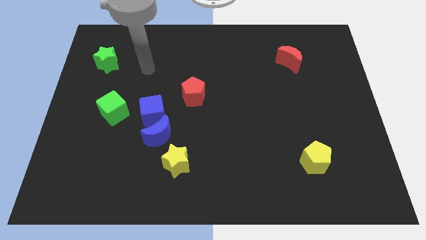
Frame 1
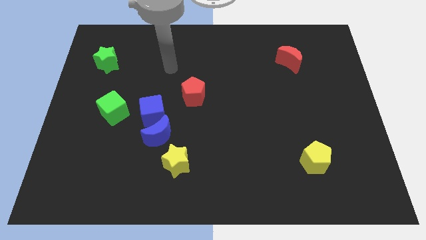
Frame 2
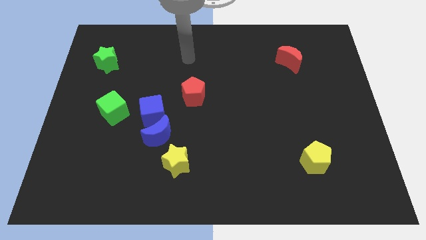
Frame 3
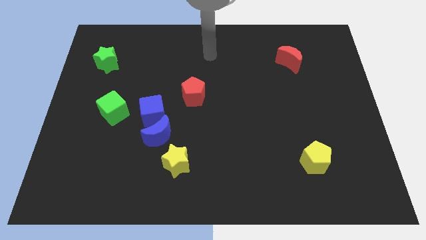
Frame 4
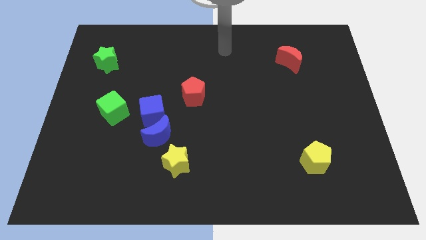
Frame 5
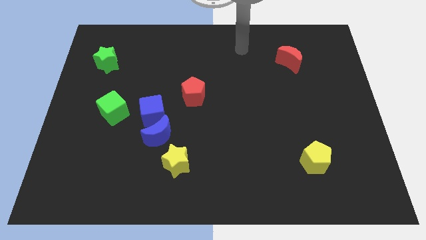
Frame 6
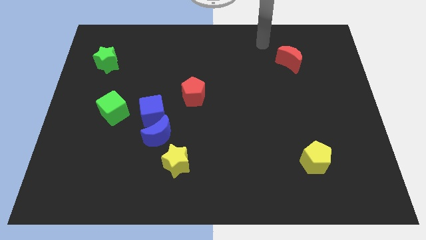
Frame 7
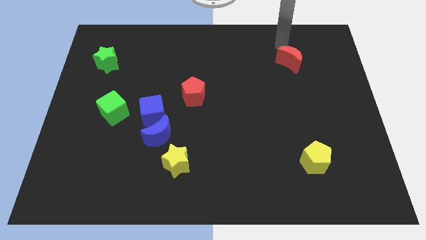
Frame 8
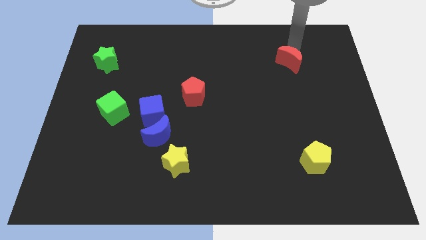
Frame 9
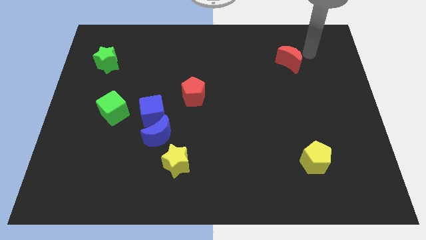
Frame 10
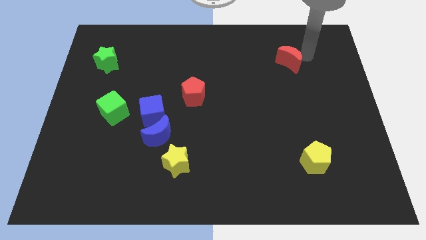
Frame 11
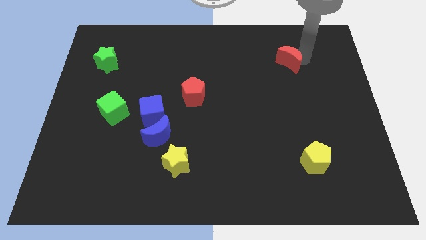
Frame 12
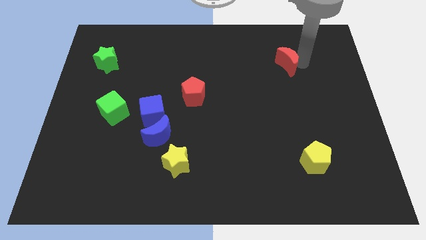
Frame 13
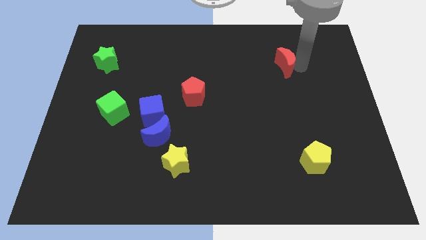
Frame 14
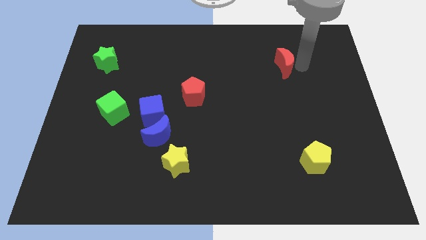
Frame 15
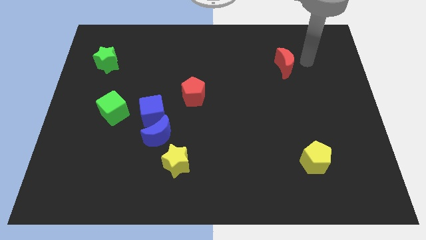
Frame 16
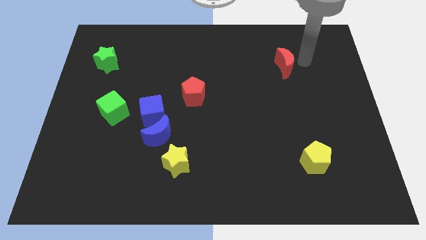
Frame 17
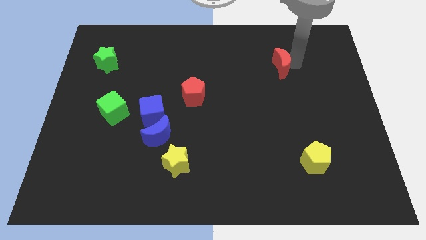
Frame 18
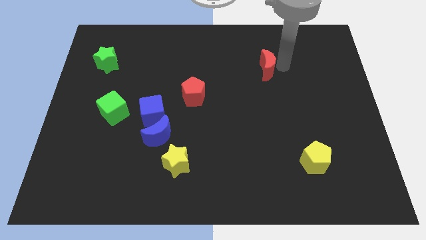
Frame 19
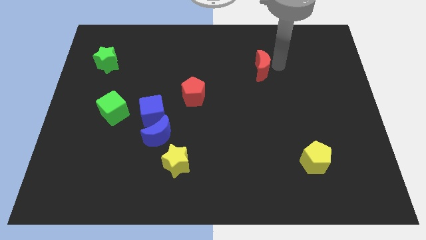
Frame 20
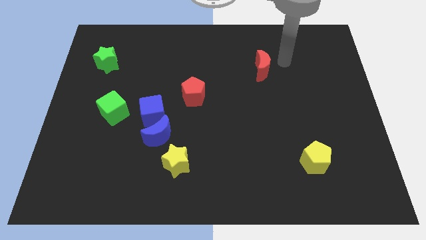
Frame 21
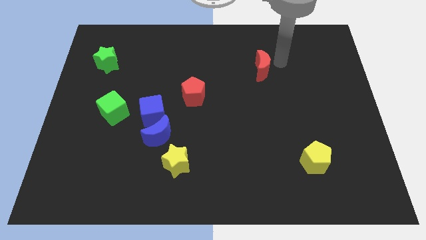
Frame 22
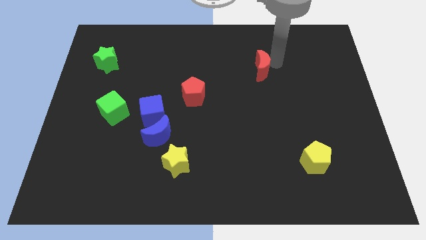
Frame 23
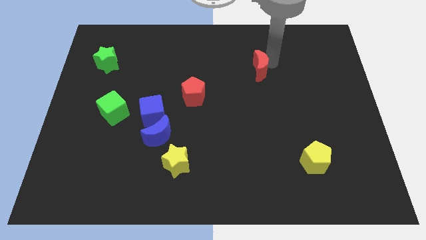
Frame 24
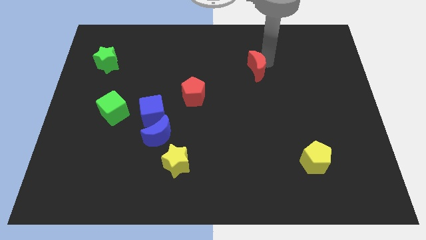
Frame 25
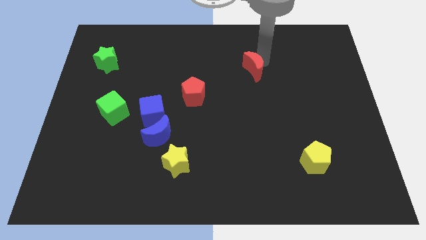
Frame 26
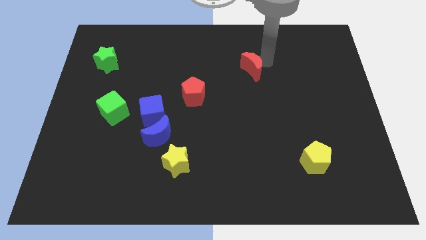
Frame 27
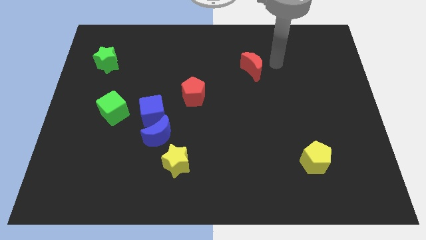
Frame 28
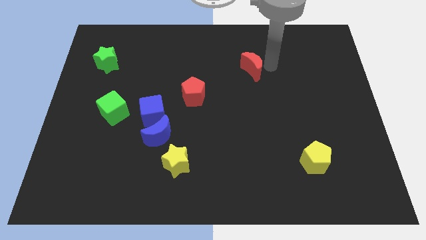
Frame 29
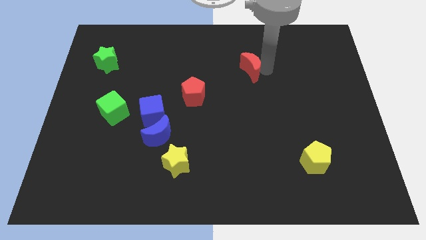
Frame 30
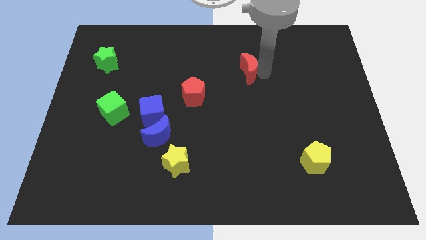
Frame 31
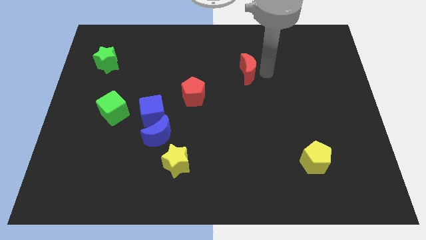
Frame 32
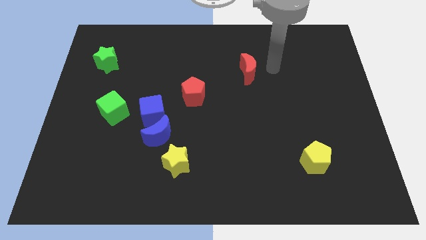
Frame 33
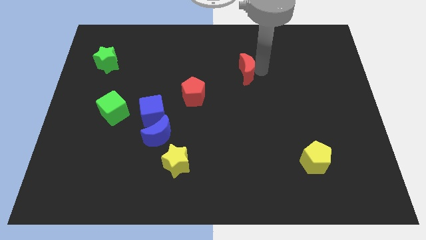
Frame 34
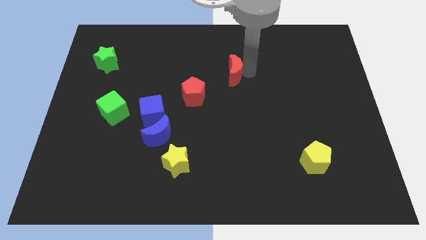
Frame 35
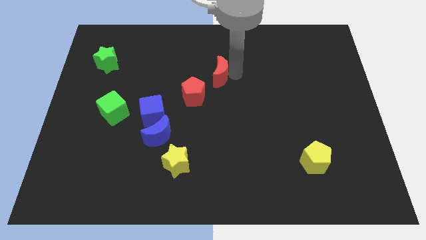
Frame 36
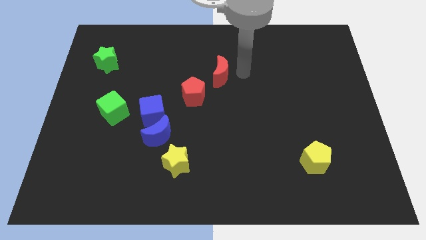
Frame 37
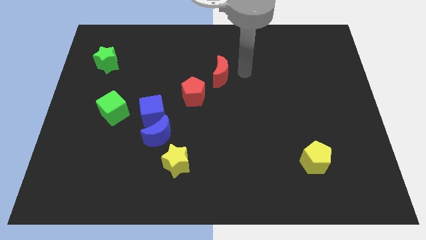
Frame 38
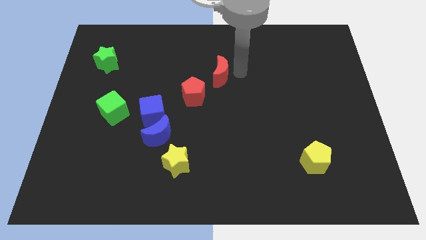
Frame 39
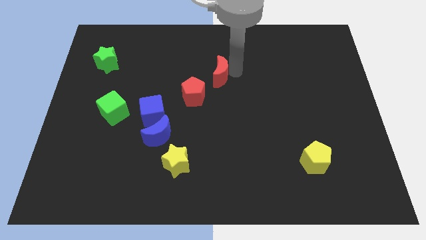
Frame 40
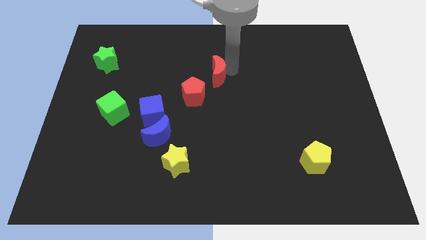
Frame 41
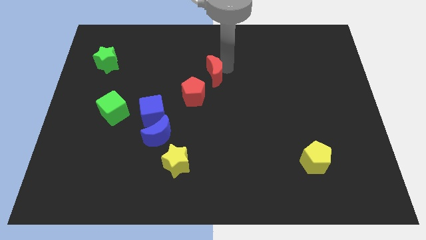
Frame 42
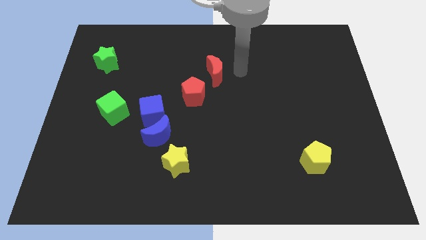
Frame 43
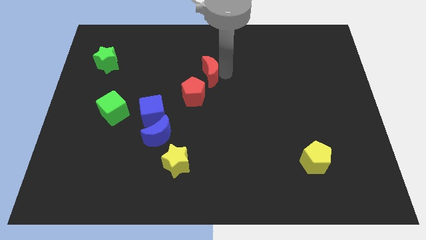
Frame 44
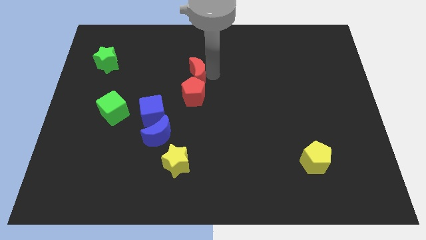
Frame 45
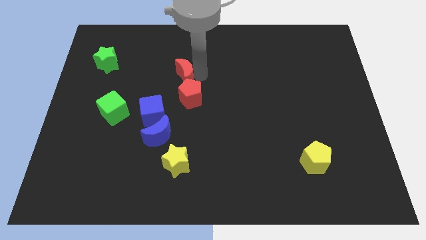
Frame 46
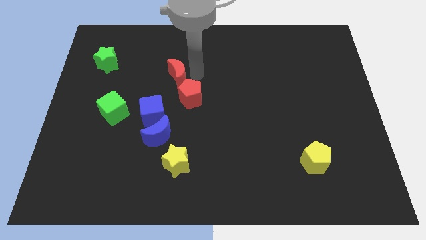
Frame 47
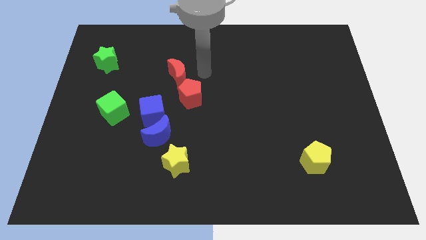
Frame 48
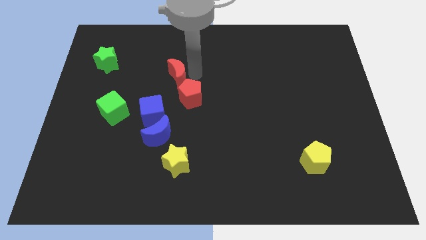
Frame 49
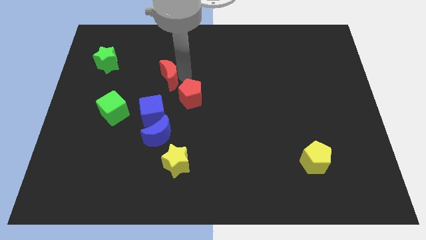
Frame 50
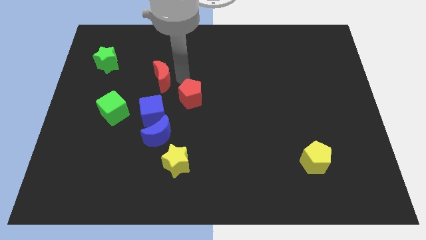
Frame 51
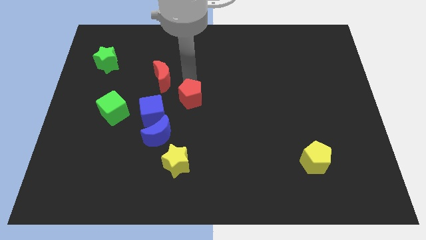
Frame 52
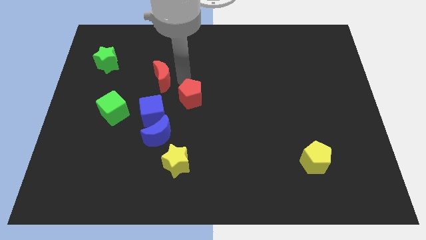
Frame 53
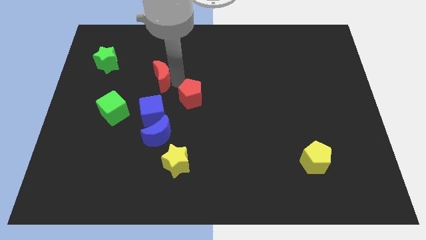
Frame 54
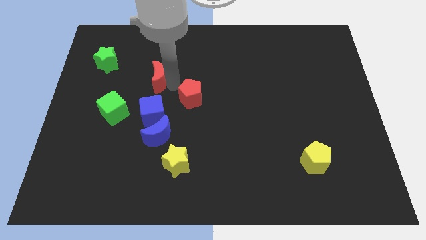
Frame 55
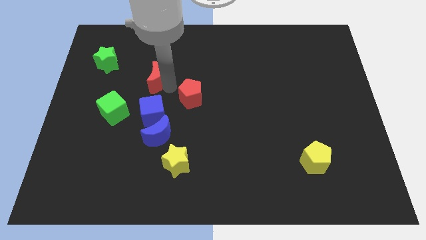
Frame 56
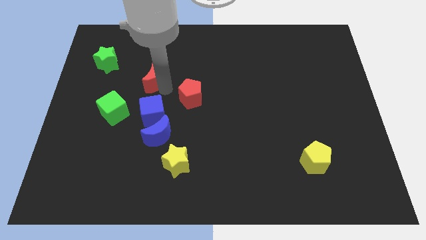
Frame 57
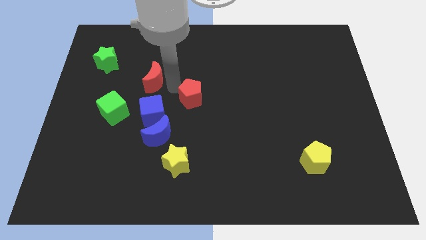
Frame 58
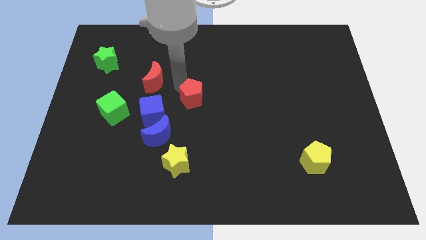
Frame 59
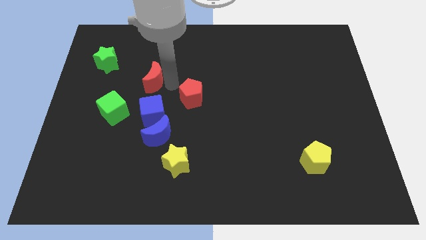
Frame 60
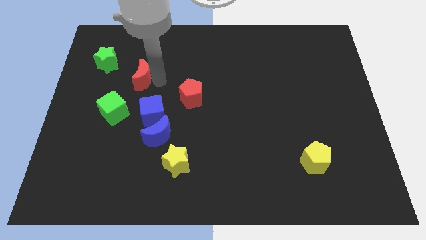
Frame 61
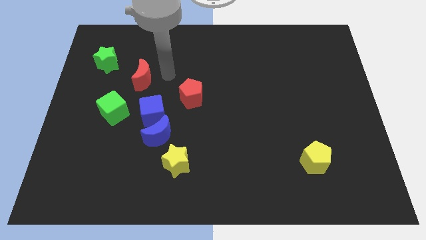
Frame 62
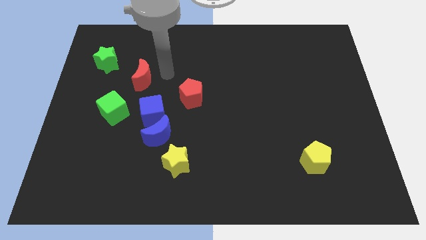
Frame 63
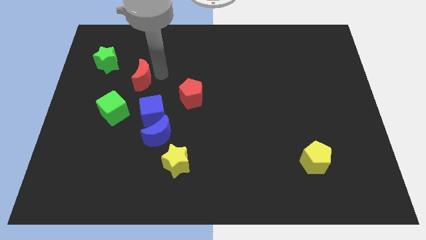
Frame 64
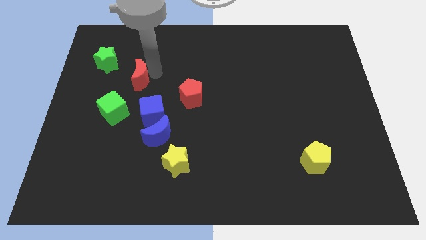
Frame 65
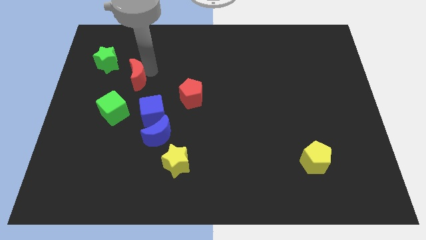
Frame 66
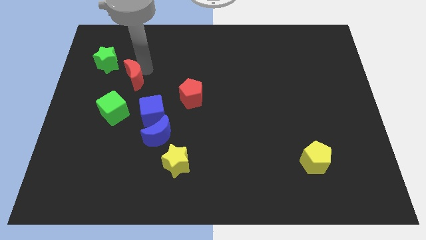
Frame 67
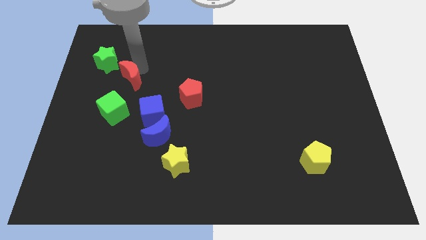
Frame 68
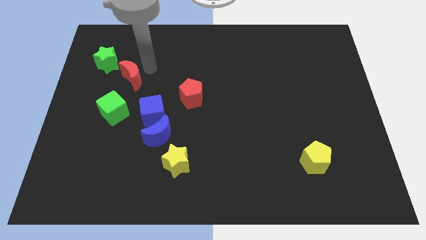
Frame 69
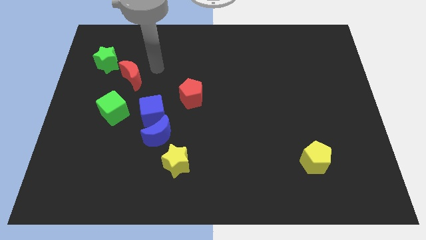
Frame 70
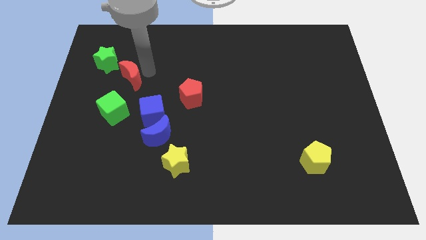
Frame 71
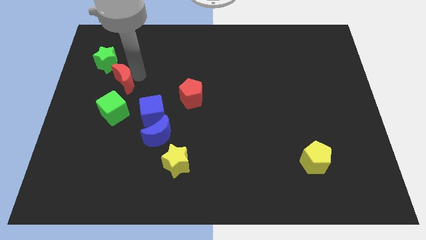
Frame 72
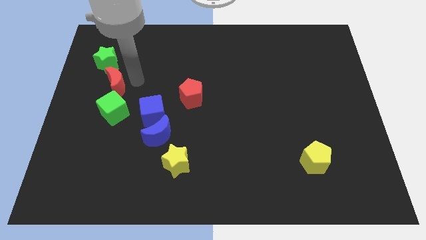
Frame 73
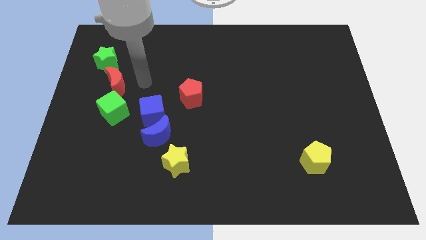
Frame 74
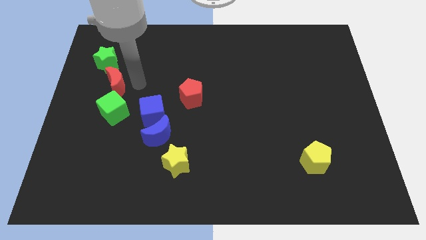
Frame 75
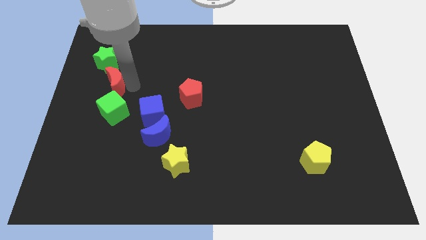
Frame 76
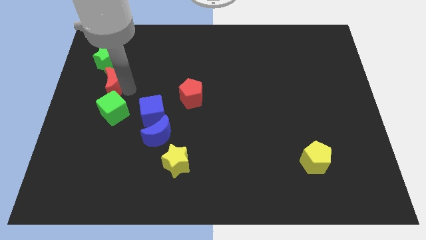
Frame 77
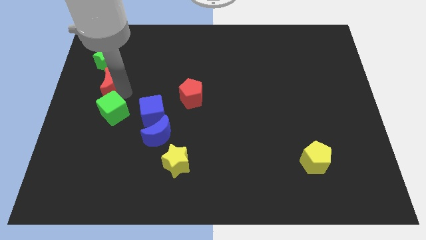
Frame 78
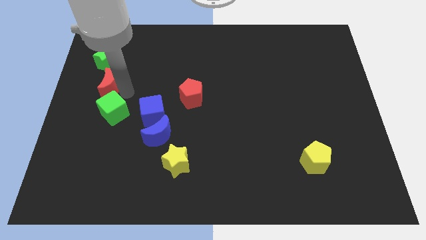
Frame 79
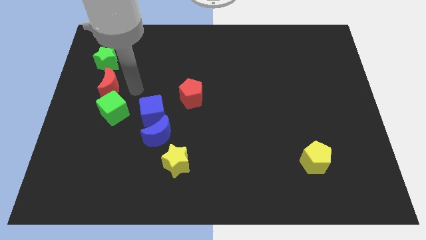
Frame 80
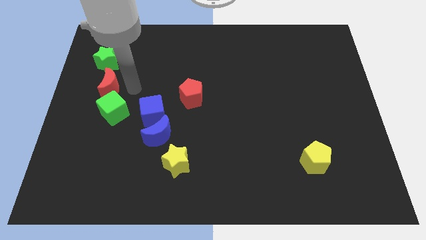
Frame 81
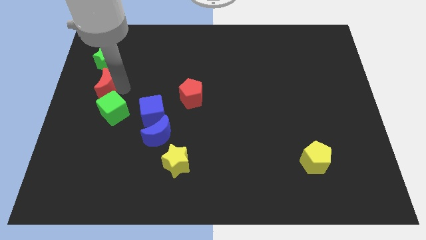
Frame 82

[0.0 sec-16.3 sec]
move the red moon to the left side of the board
